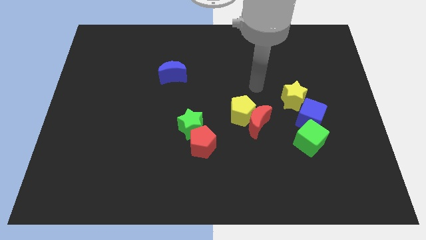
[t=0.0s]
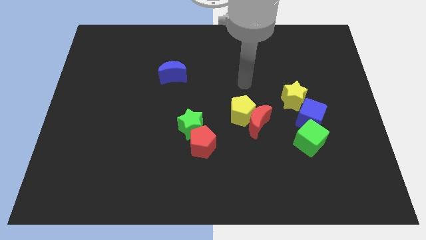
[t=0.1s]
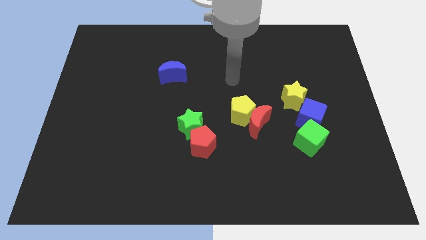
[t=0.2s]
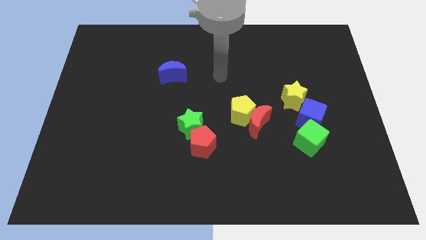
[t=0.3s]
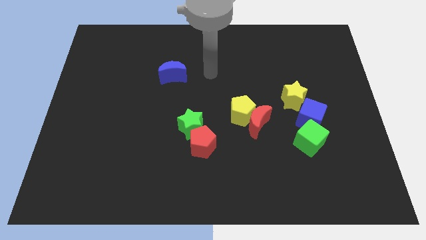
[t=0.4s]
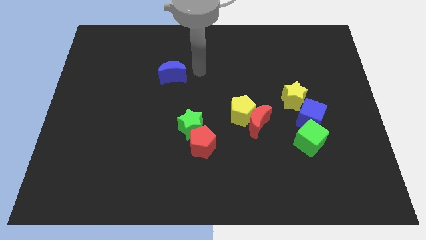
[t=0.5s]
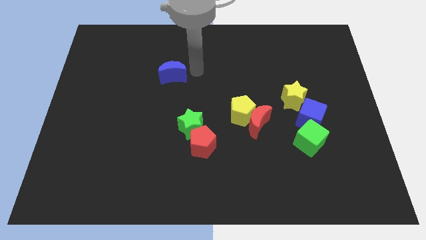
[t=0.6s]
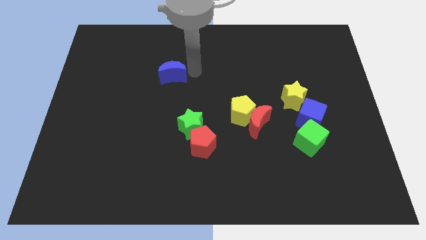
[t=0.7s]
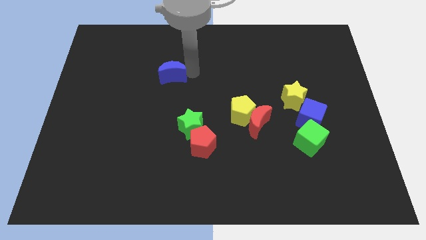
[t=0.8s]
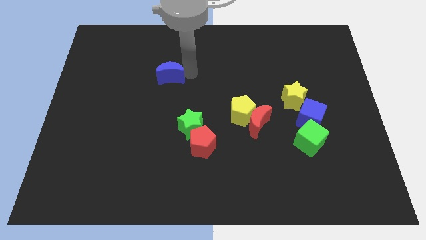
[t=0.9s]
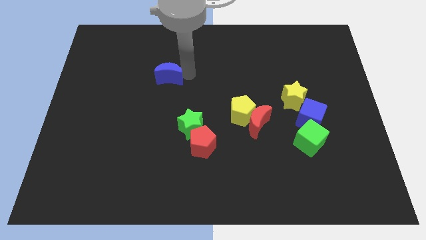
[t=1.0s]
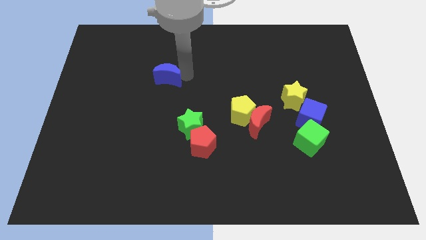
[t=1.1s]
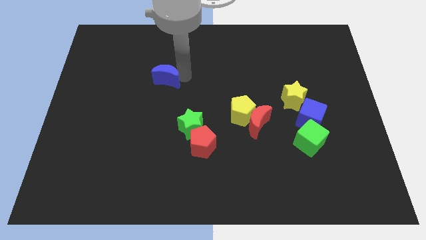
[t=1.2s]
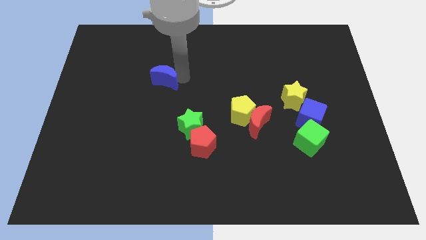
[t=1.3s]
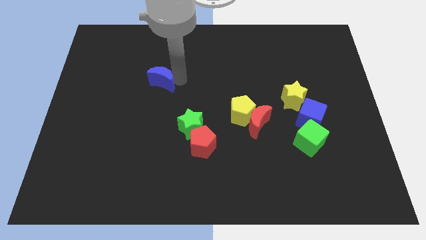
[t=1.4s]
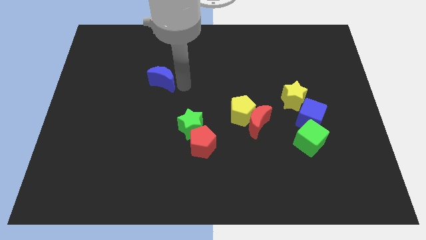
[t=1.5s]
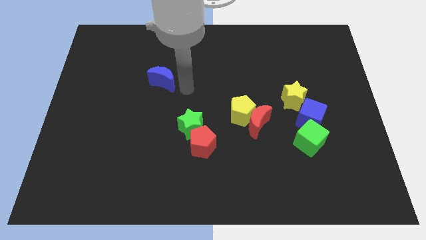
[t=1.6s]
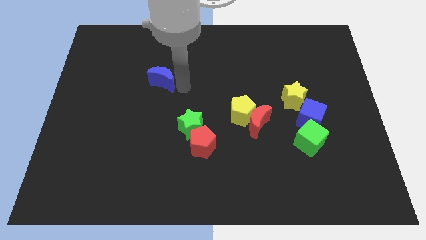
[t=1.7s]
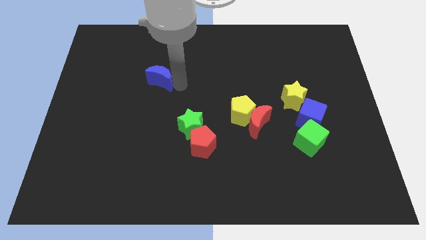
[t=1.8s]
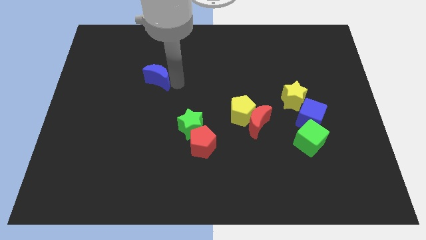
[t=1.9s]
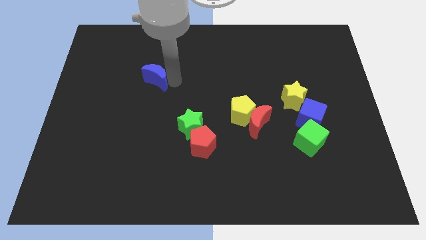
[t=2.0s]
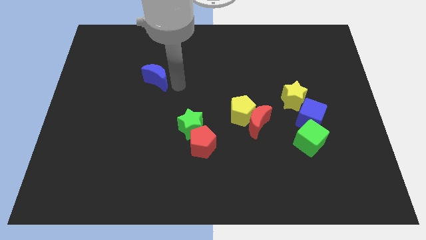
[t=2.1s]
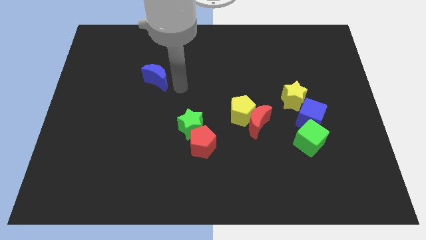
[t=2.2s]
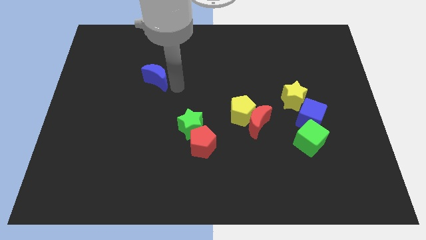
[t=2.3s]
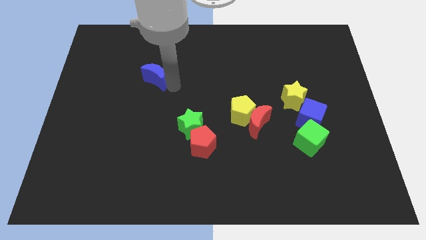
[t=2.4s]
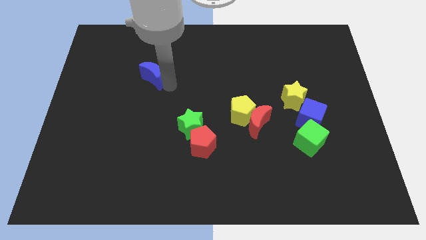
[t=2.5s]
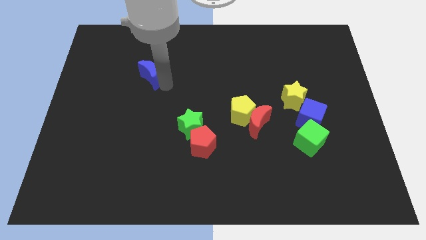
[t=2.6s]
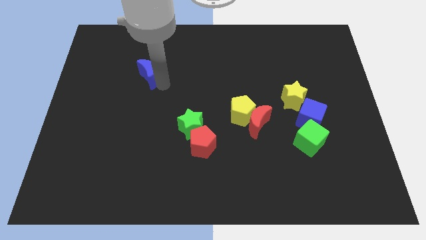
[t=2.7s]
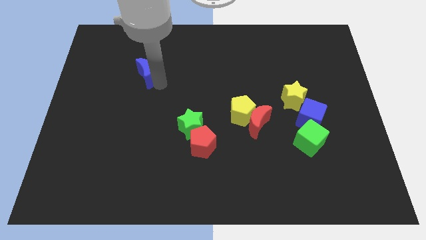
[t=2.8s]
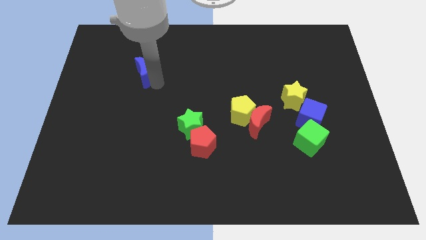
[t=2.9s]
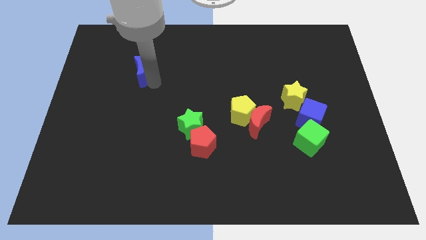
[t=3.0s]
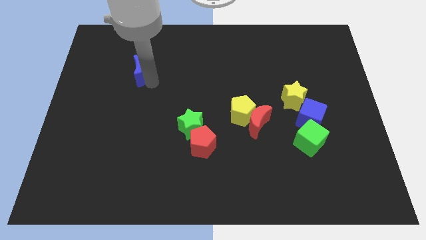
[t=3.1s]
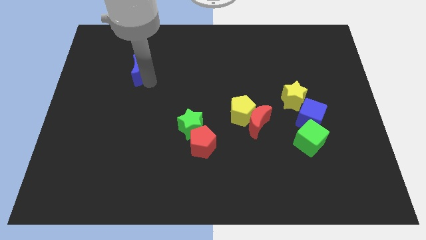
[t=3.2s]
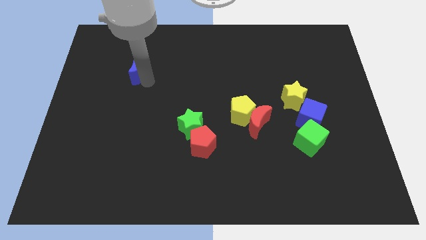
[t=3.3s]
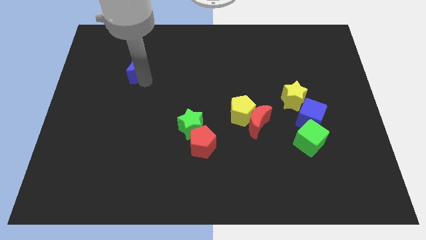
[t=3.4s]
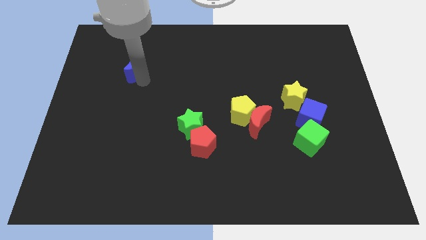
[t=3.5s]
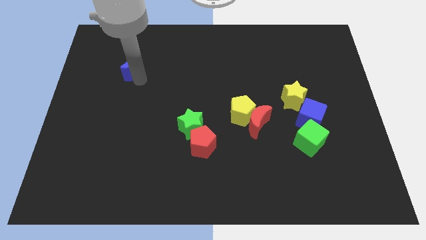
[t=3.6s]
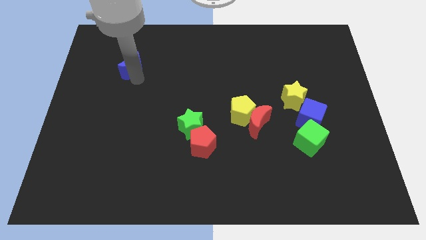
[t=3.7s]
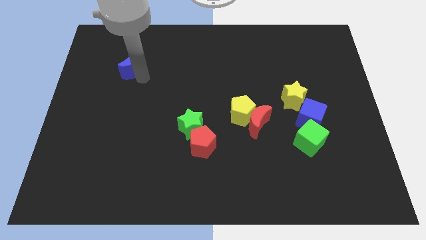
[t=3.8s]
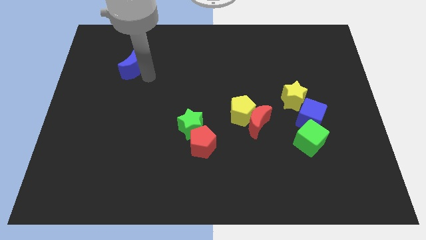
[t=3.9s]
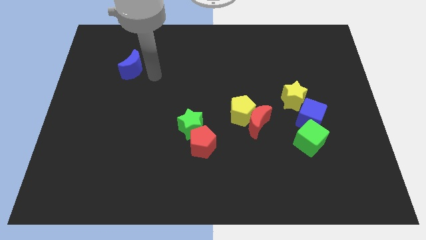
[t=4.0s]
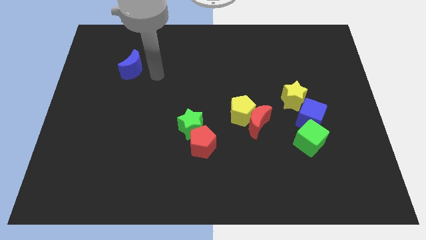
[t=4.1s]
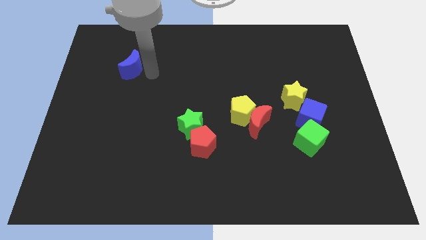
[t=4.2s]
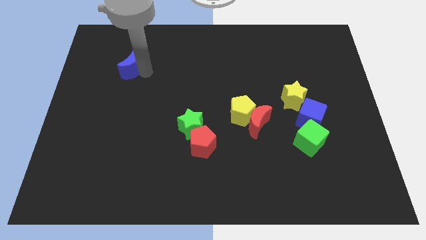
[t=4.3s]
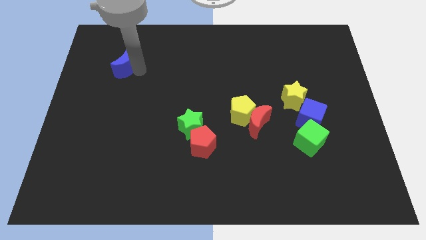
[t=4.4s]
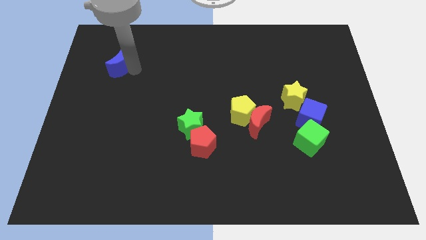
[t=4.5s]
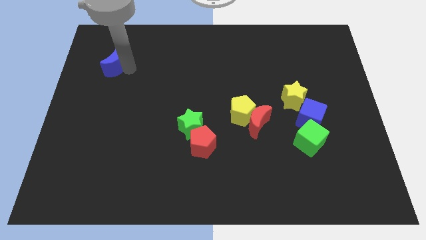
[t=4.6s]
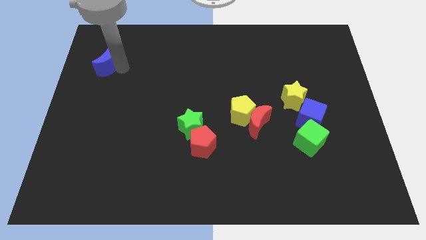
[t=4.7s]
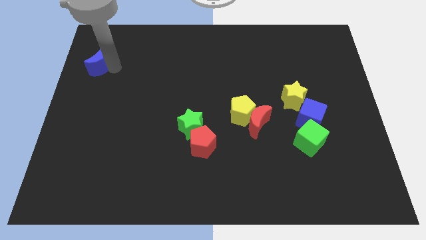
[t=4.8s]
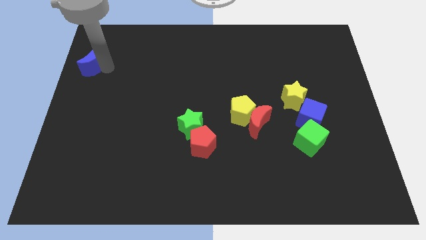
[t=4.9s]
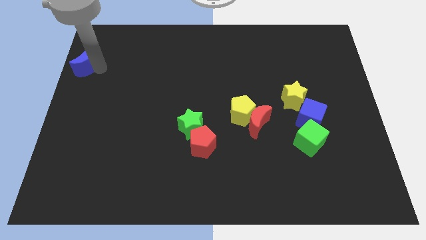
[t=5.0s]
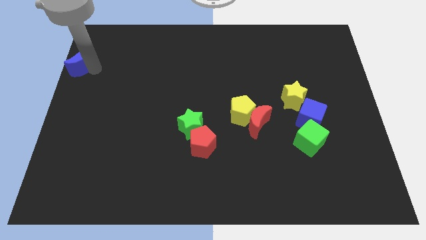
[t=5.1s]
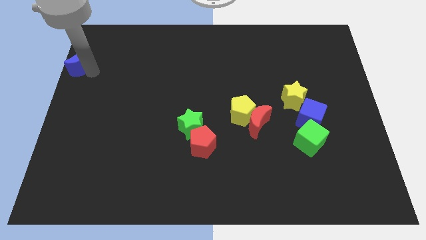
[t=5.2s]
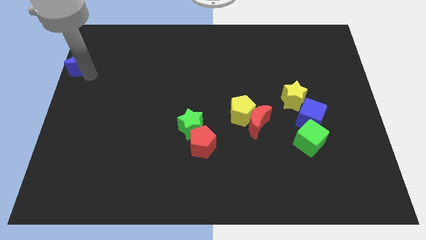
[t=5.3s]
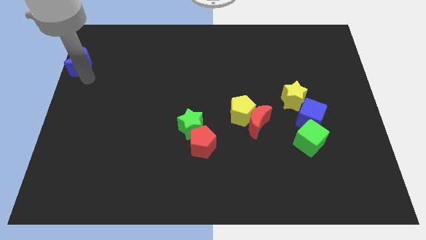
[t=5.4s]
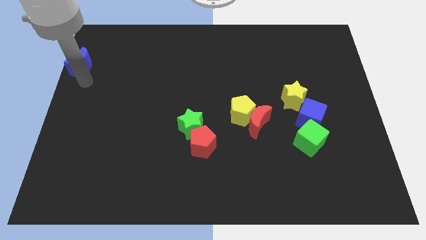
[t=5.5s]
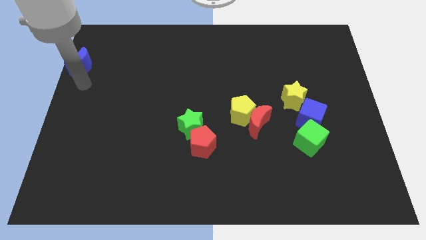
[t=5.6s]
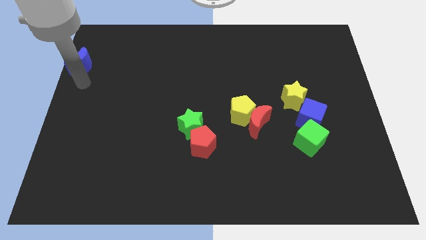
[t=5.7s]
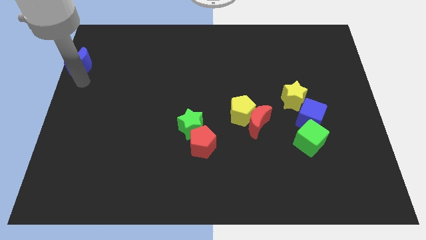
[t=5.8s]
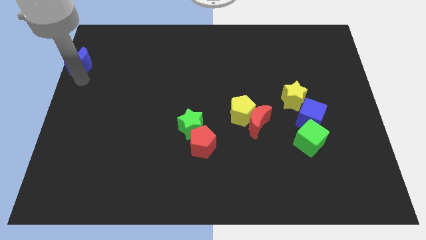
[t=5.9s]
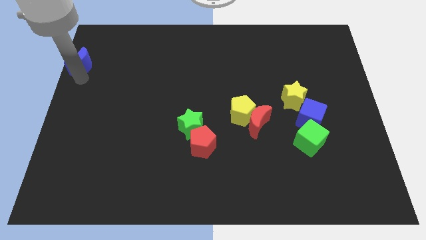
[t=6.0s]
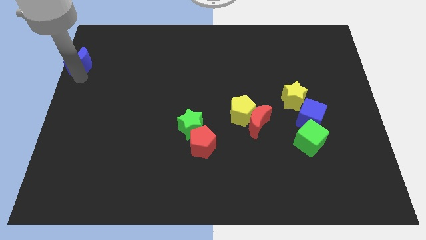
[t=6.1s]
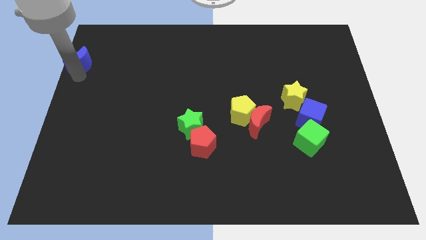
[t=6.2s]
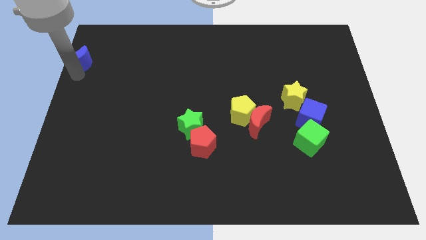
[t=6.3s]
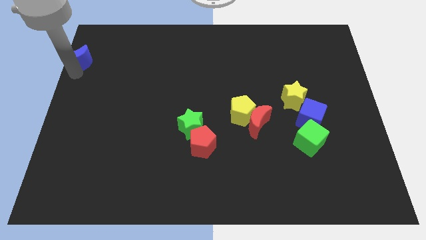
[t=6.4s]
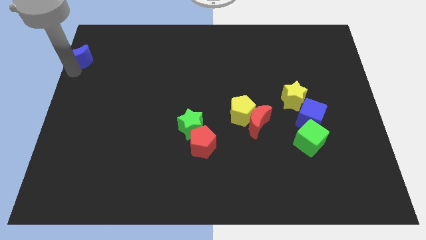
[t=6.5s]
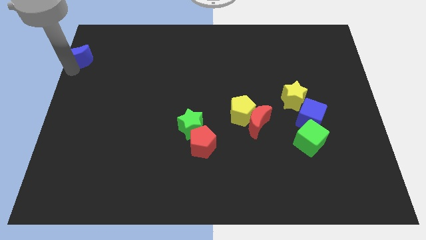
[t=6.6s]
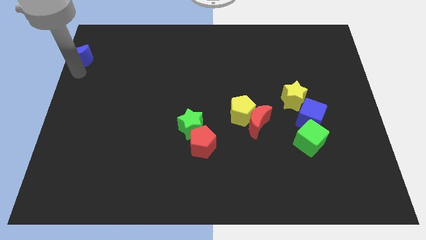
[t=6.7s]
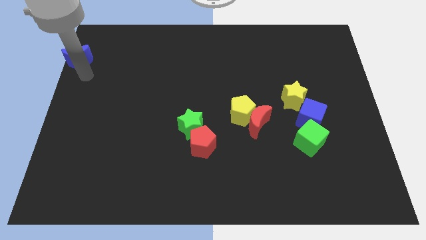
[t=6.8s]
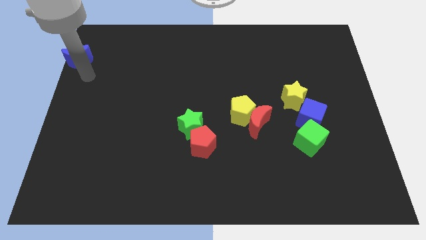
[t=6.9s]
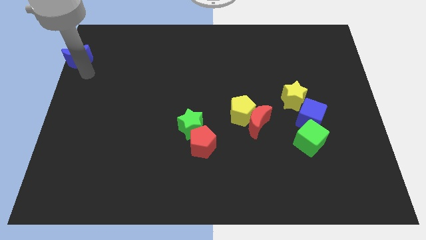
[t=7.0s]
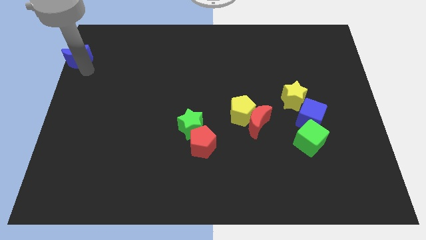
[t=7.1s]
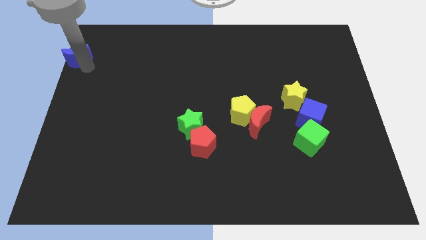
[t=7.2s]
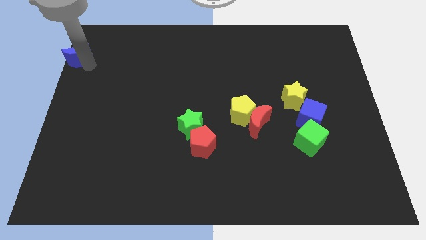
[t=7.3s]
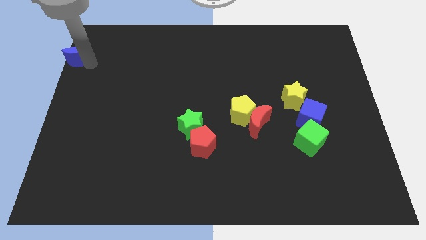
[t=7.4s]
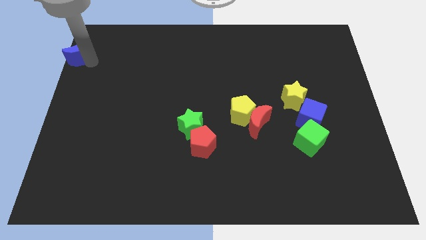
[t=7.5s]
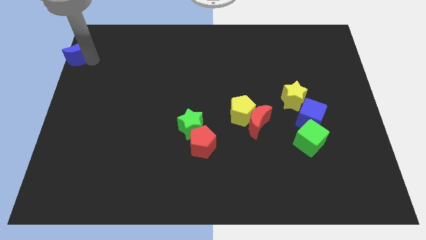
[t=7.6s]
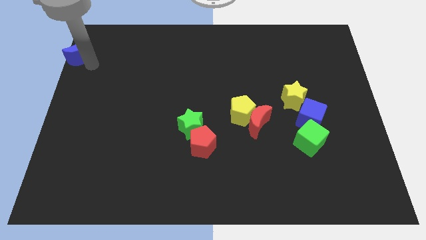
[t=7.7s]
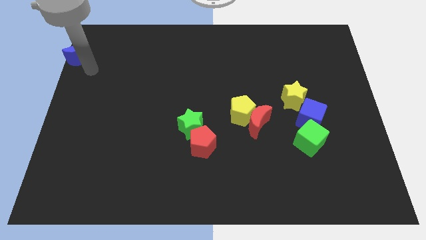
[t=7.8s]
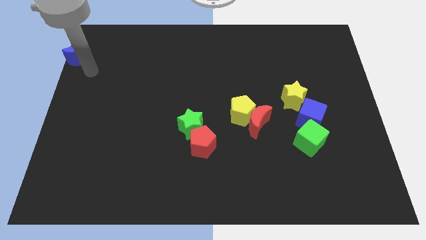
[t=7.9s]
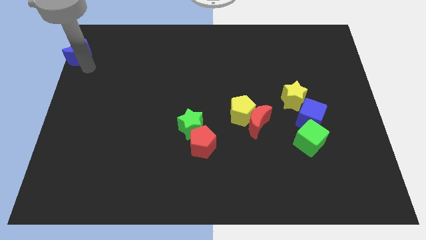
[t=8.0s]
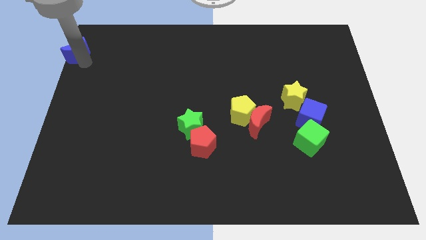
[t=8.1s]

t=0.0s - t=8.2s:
put the blue moon to the top left corner
